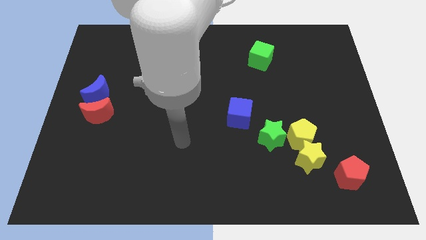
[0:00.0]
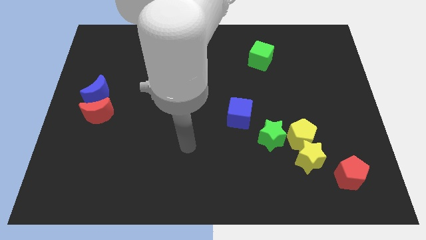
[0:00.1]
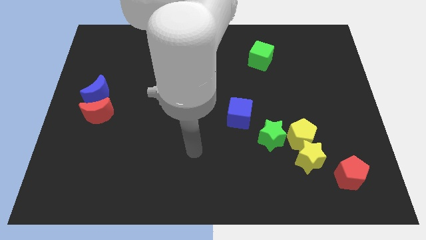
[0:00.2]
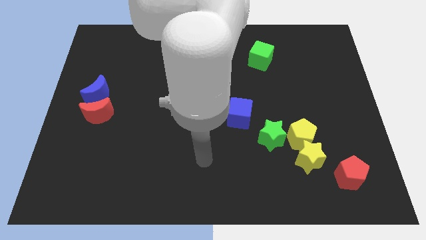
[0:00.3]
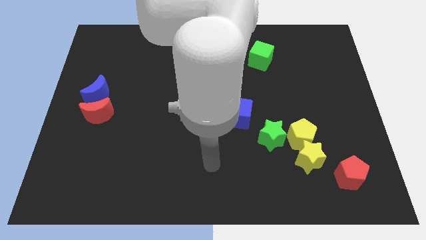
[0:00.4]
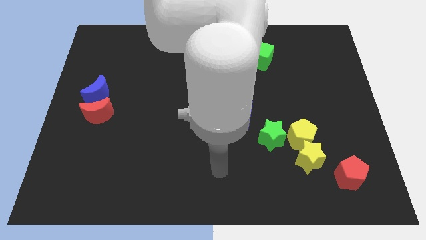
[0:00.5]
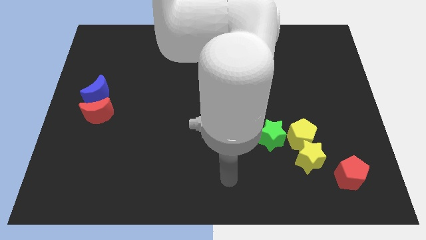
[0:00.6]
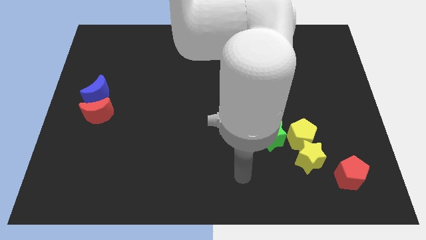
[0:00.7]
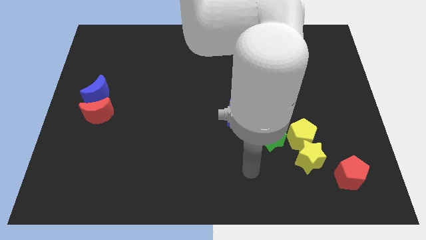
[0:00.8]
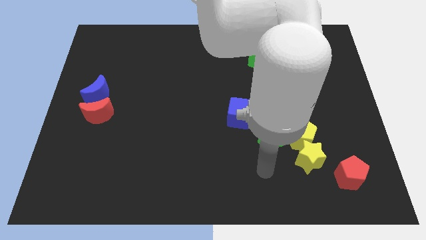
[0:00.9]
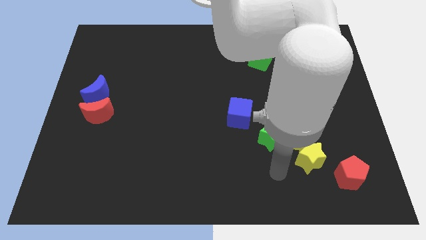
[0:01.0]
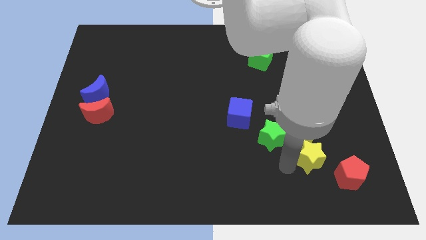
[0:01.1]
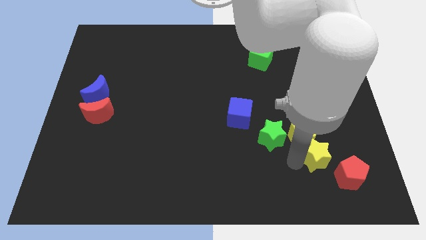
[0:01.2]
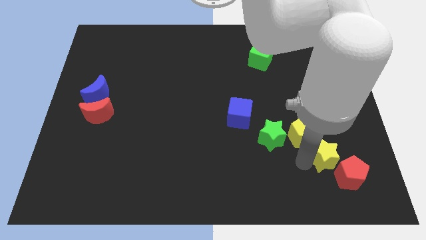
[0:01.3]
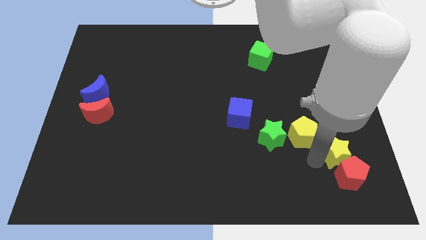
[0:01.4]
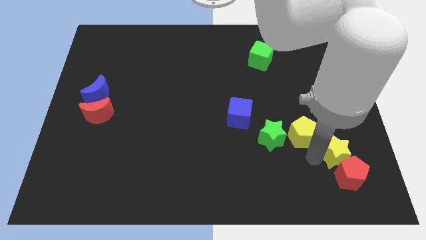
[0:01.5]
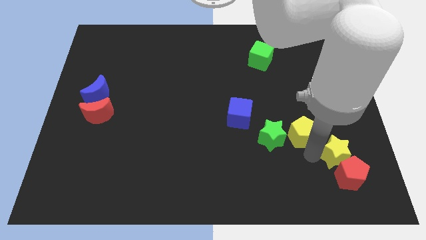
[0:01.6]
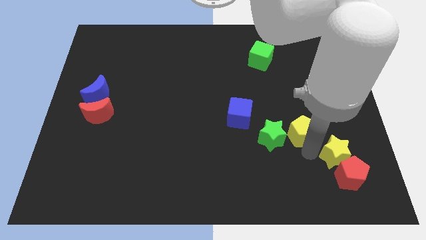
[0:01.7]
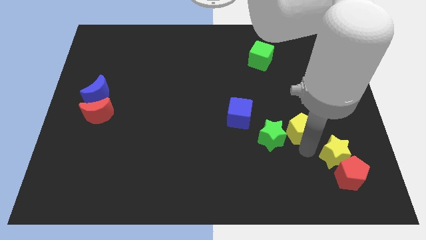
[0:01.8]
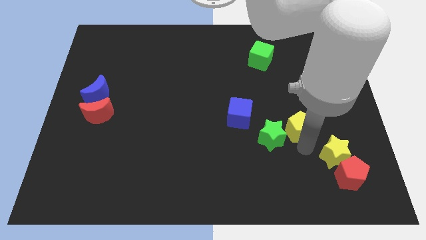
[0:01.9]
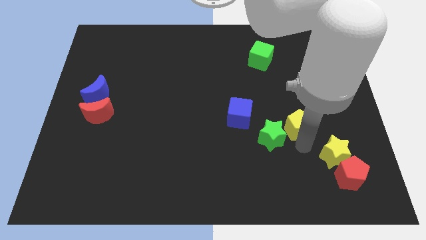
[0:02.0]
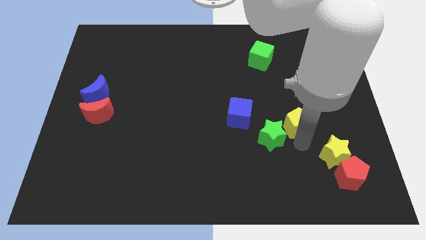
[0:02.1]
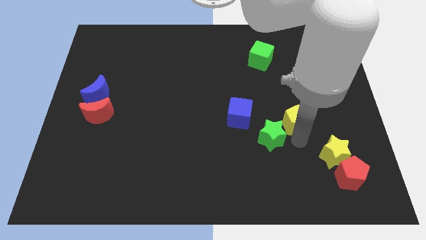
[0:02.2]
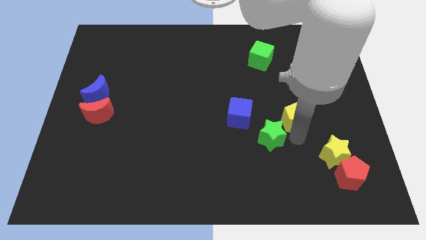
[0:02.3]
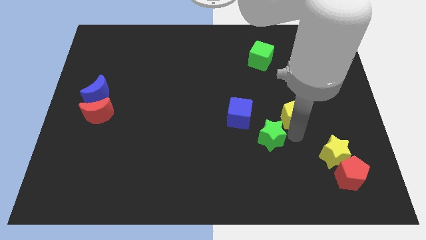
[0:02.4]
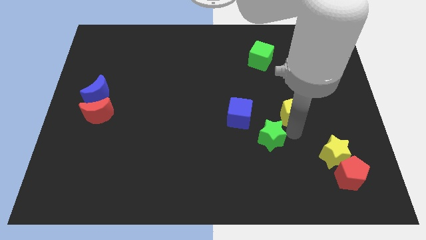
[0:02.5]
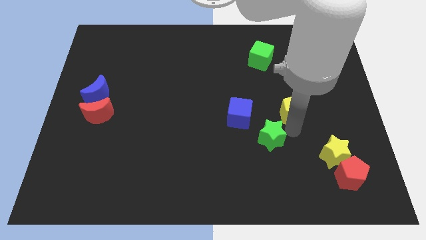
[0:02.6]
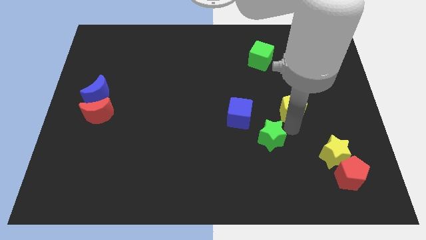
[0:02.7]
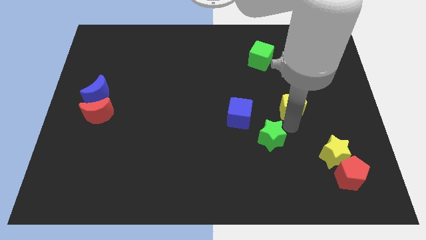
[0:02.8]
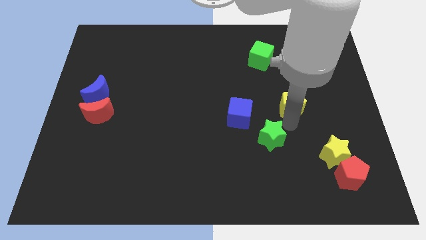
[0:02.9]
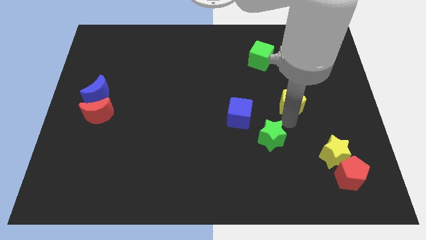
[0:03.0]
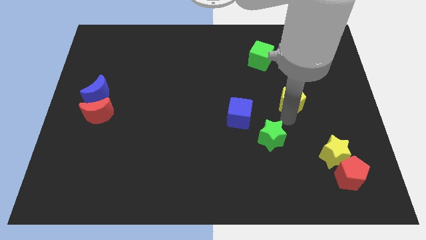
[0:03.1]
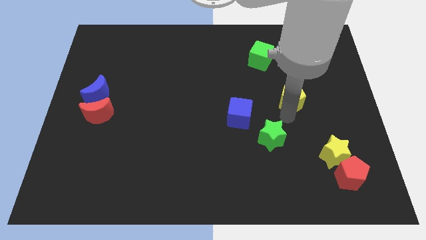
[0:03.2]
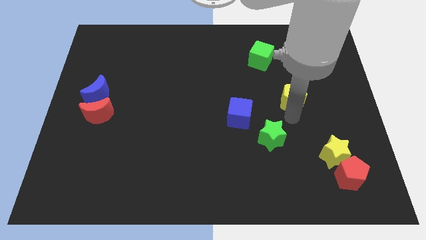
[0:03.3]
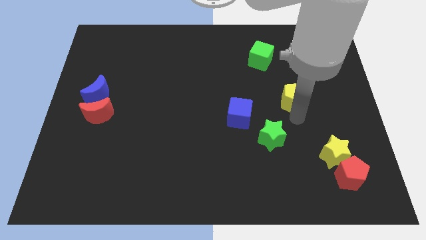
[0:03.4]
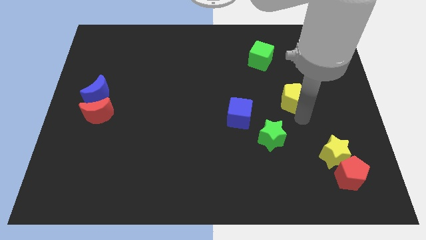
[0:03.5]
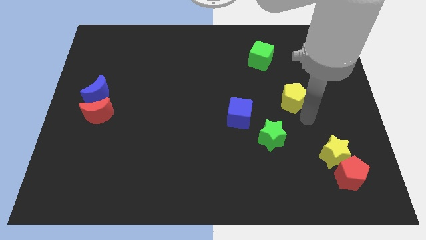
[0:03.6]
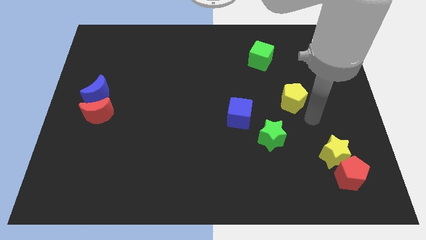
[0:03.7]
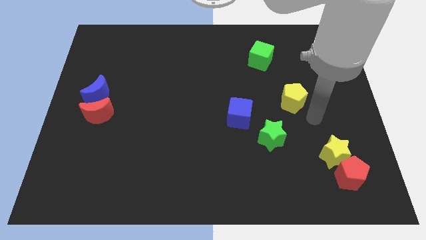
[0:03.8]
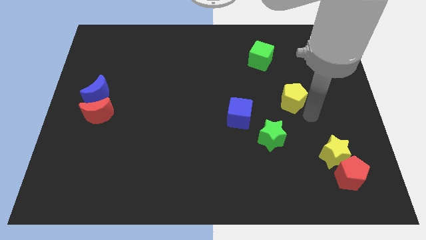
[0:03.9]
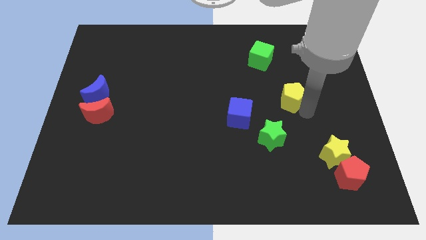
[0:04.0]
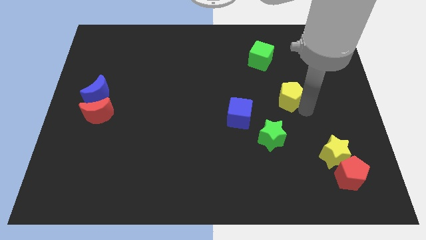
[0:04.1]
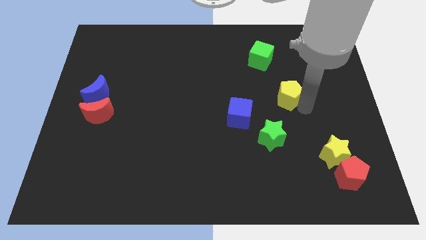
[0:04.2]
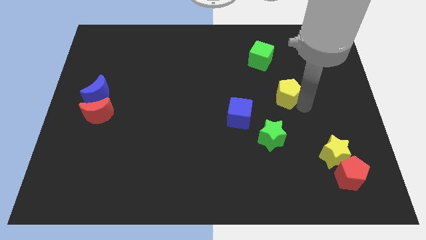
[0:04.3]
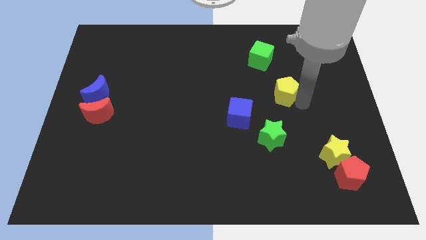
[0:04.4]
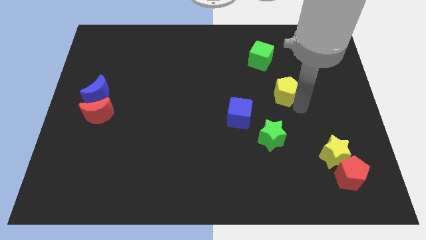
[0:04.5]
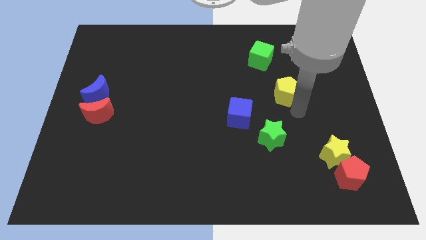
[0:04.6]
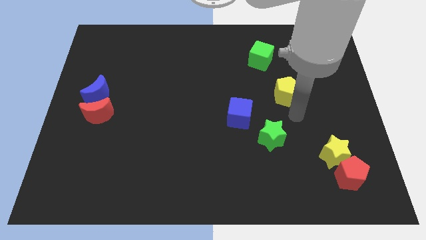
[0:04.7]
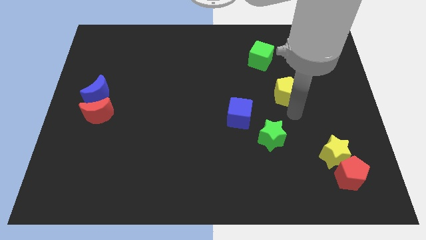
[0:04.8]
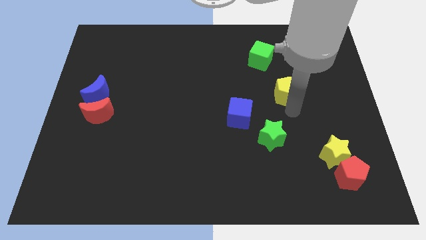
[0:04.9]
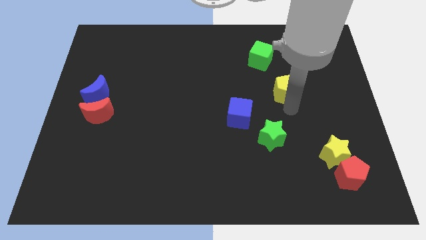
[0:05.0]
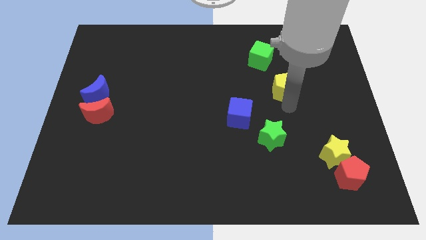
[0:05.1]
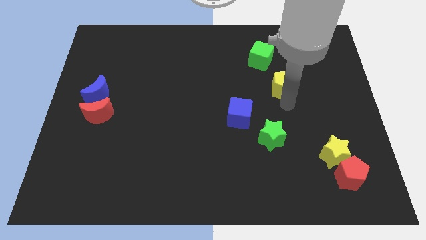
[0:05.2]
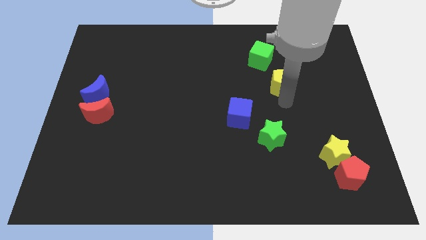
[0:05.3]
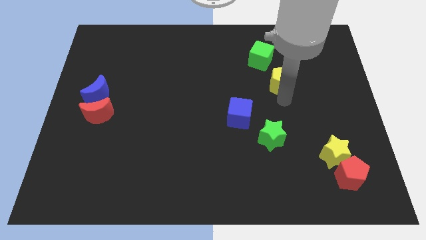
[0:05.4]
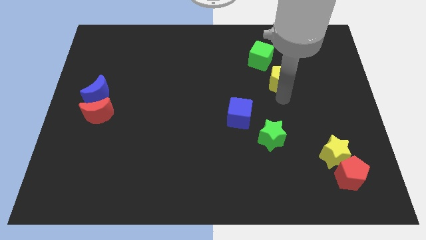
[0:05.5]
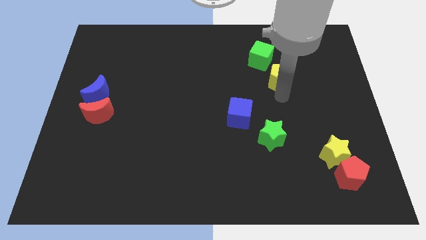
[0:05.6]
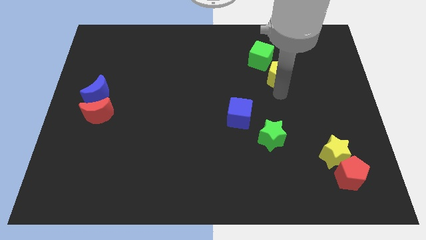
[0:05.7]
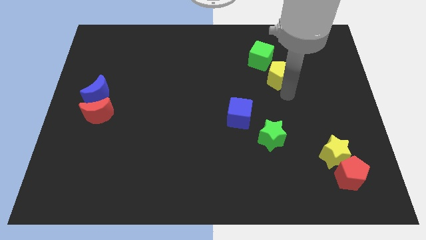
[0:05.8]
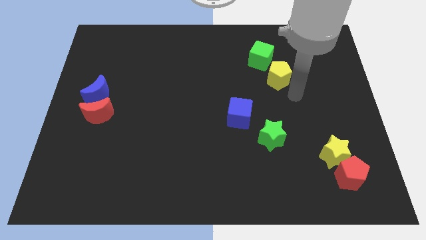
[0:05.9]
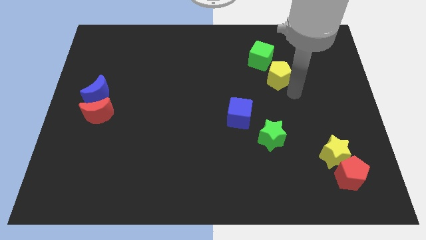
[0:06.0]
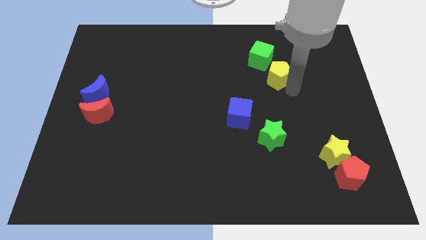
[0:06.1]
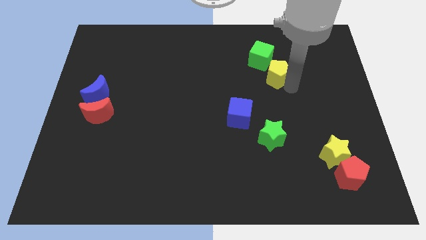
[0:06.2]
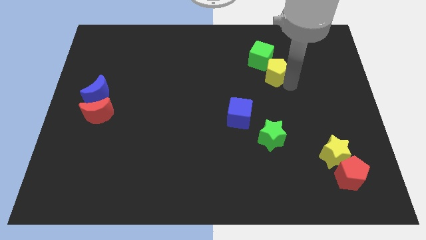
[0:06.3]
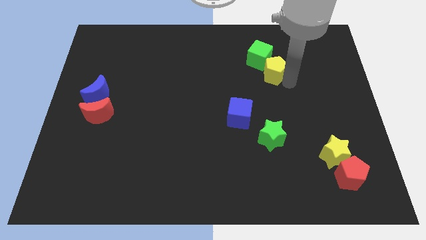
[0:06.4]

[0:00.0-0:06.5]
slide the yellow pentagon next to the green cube
